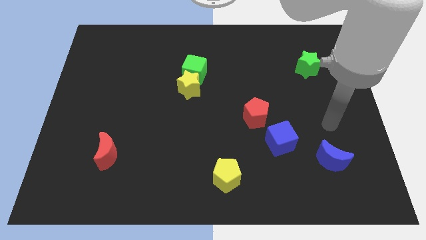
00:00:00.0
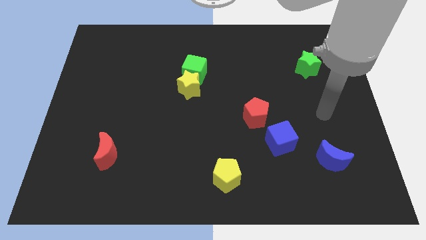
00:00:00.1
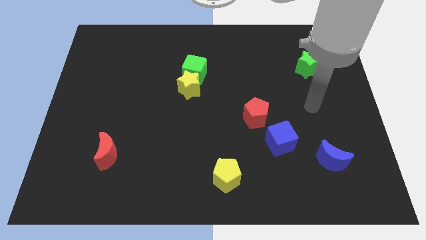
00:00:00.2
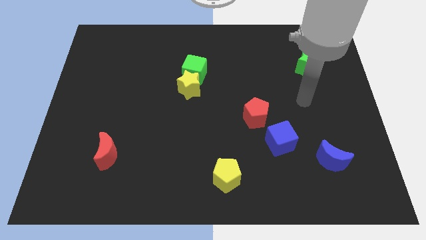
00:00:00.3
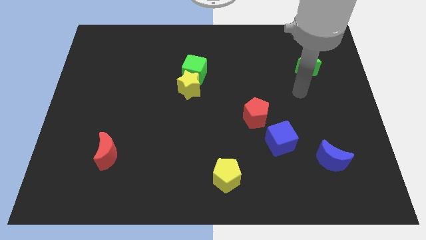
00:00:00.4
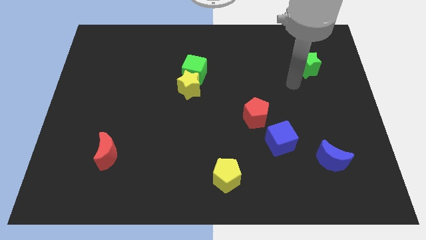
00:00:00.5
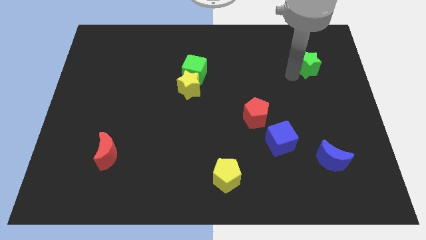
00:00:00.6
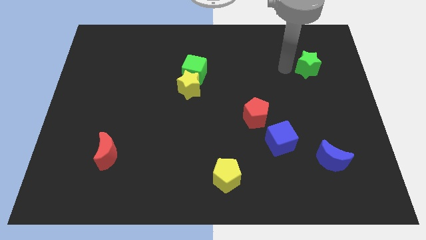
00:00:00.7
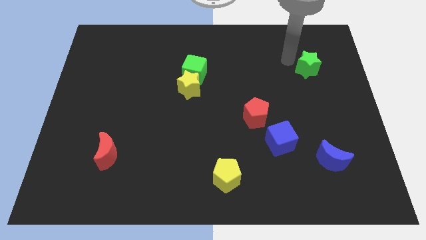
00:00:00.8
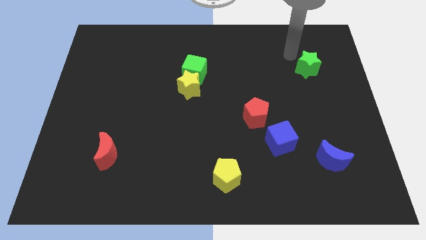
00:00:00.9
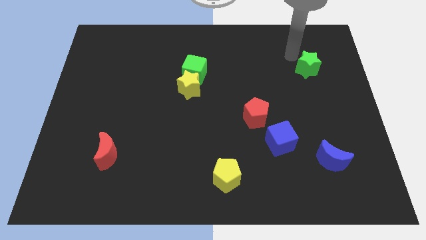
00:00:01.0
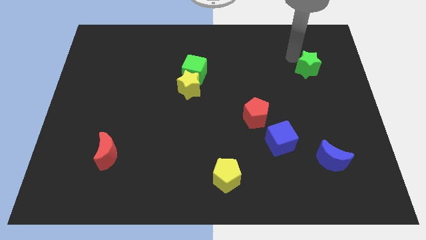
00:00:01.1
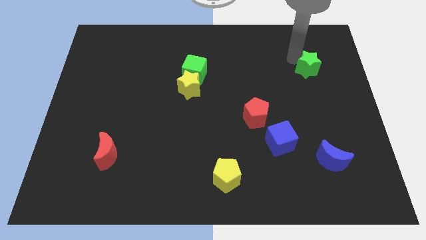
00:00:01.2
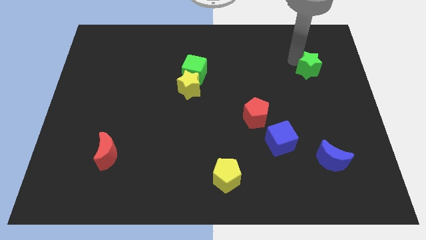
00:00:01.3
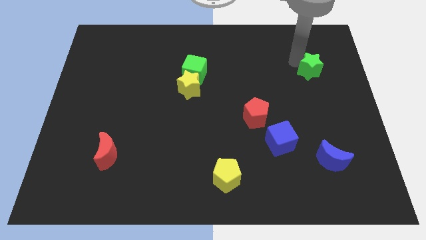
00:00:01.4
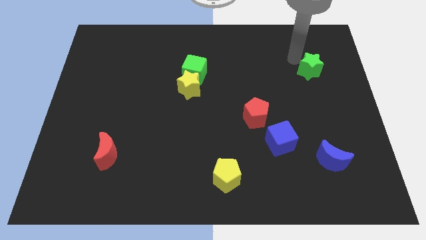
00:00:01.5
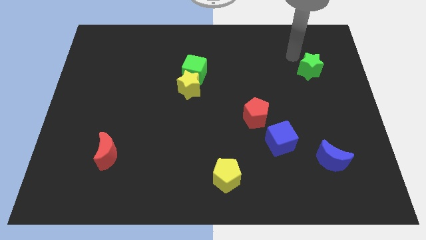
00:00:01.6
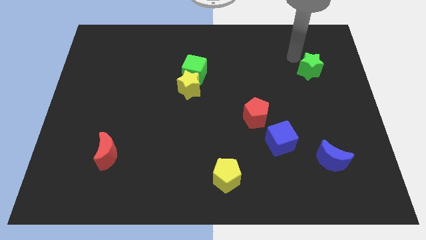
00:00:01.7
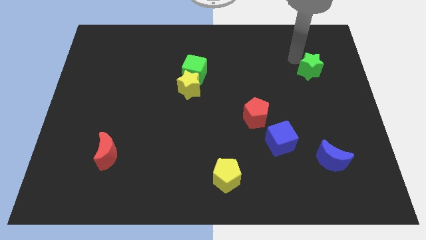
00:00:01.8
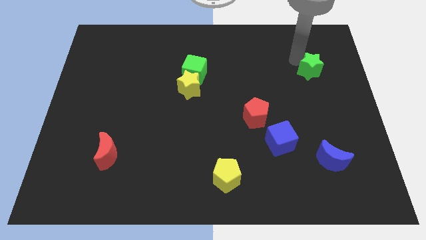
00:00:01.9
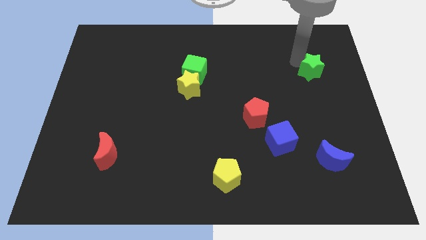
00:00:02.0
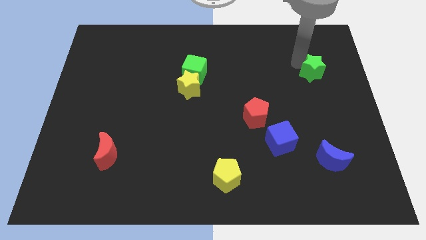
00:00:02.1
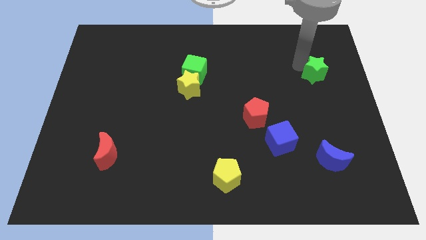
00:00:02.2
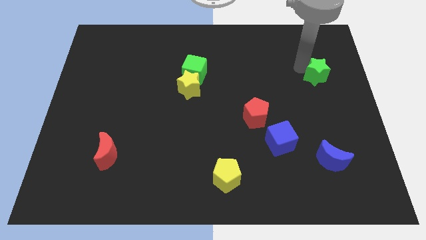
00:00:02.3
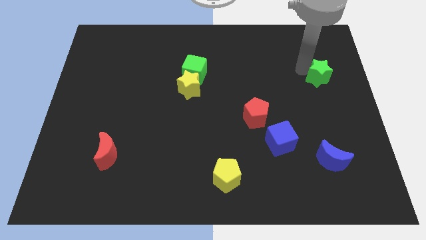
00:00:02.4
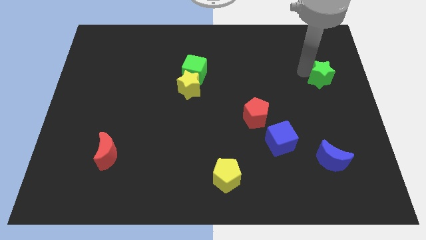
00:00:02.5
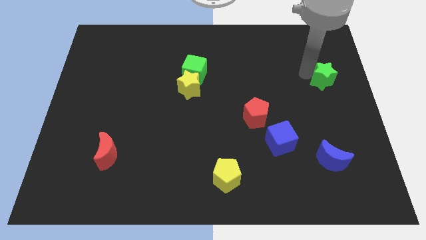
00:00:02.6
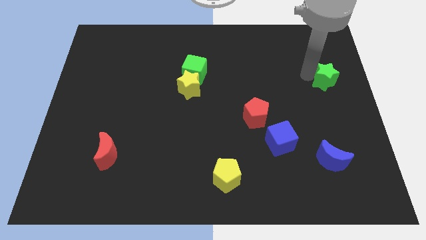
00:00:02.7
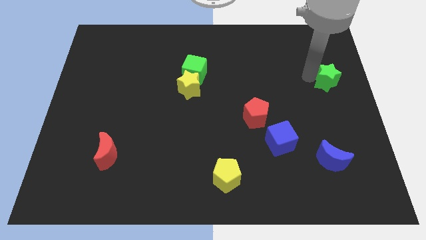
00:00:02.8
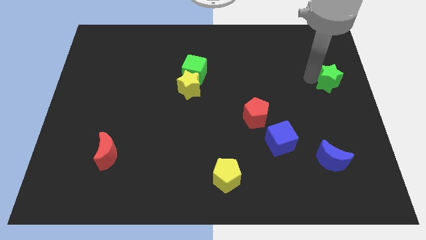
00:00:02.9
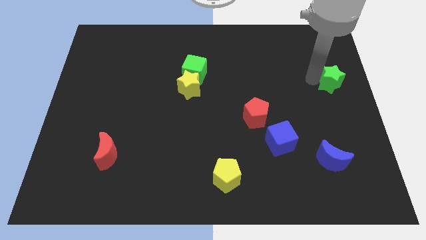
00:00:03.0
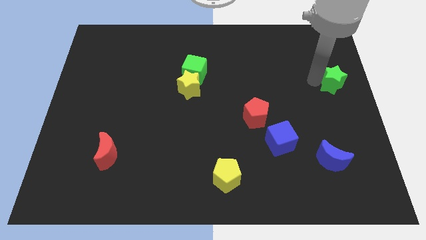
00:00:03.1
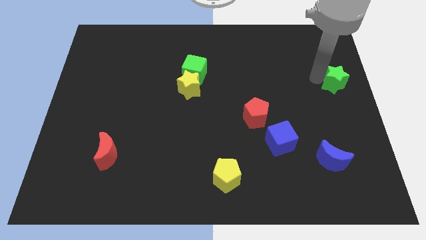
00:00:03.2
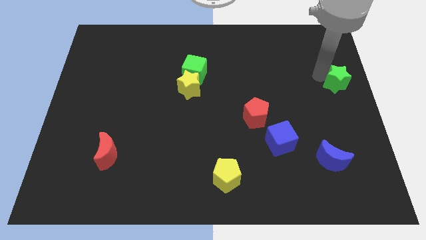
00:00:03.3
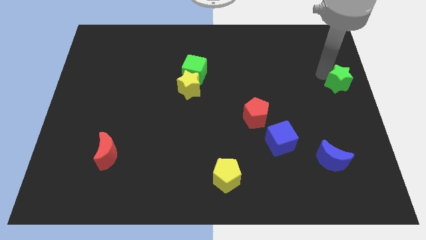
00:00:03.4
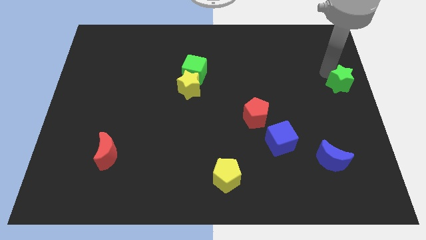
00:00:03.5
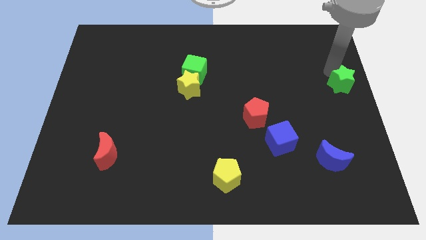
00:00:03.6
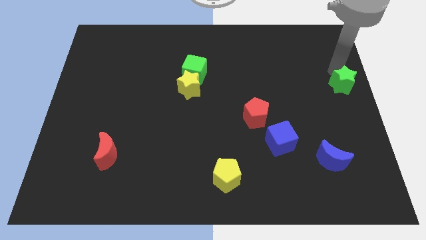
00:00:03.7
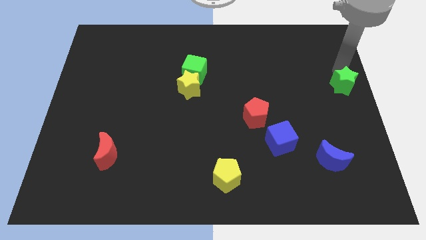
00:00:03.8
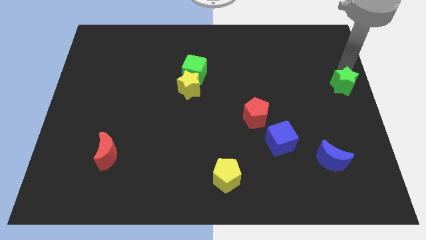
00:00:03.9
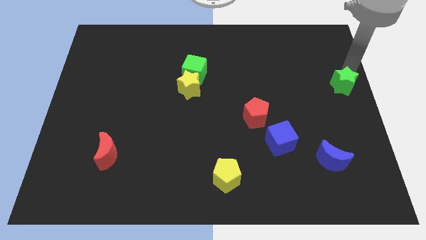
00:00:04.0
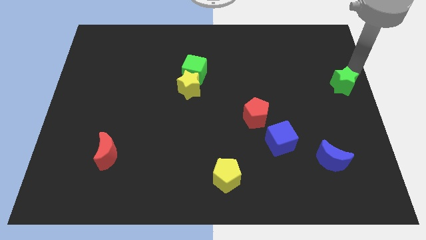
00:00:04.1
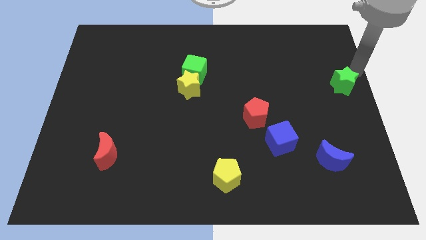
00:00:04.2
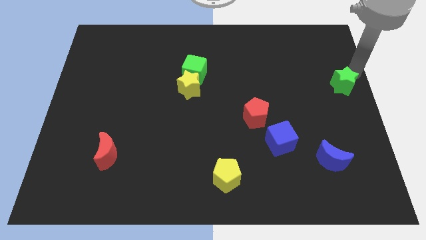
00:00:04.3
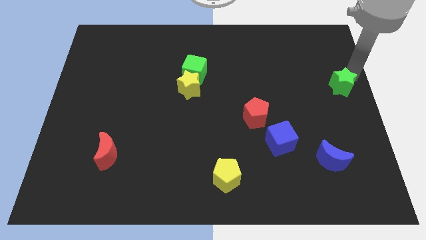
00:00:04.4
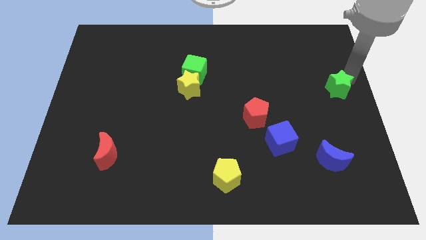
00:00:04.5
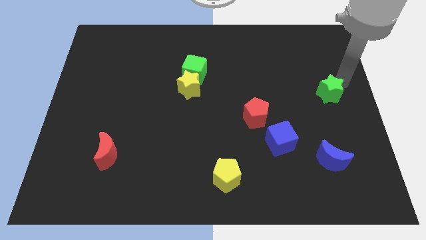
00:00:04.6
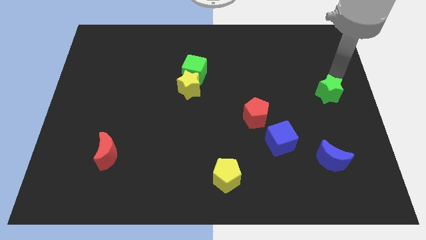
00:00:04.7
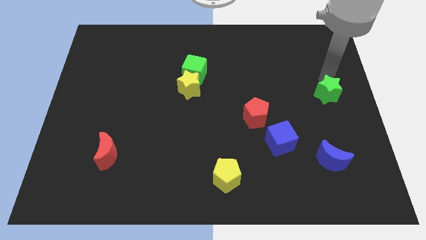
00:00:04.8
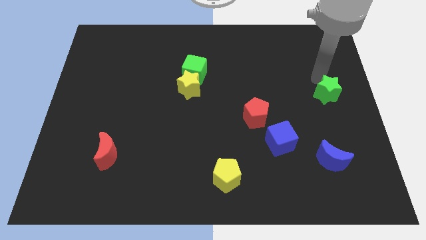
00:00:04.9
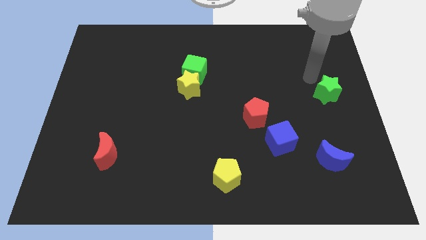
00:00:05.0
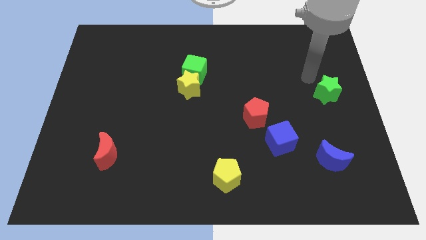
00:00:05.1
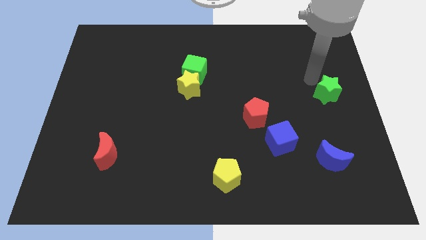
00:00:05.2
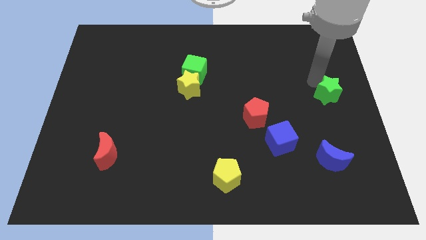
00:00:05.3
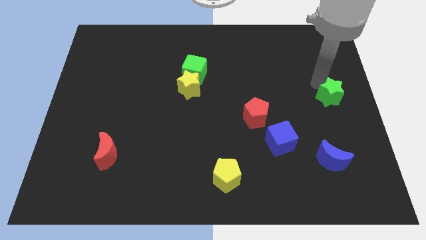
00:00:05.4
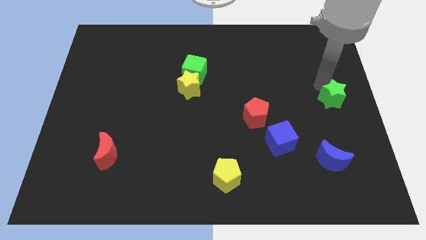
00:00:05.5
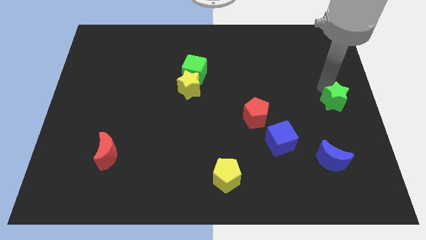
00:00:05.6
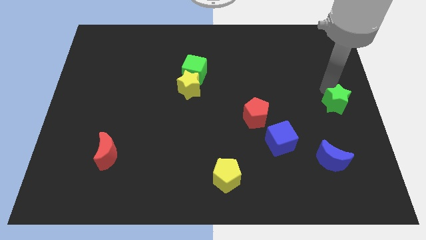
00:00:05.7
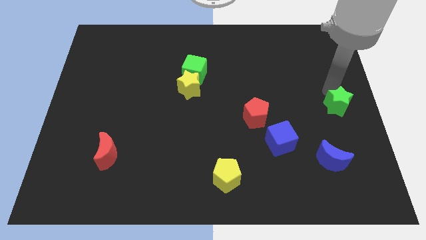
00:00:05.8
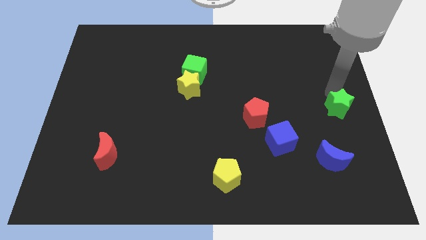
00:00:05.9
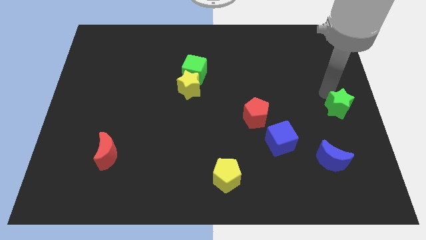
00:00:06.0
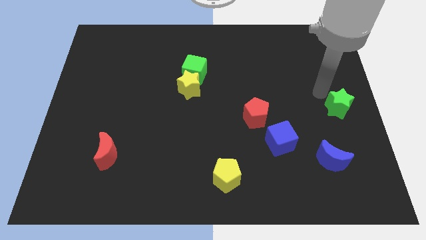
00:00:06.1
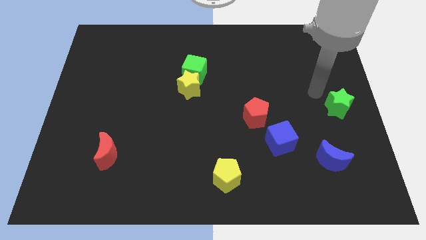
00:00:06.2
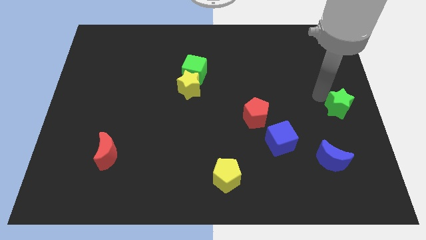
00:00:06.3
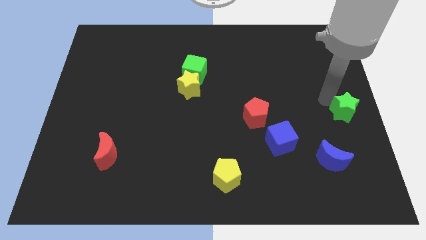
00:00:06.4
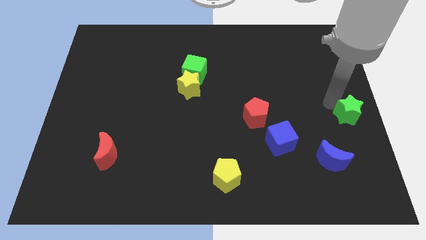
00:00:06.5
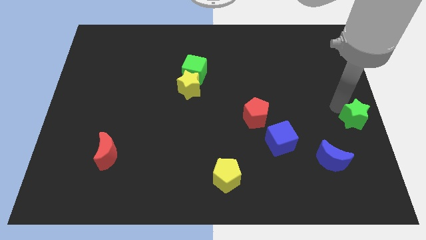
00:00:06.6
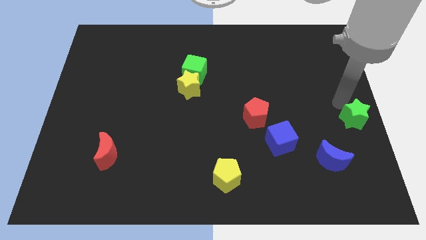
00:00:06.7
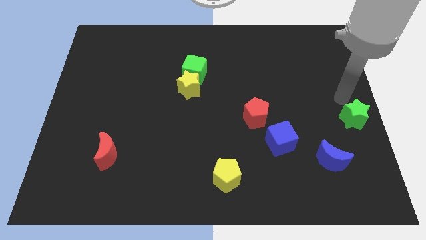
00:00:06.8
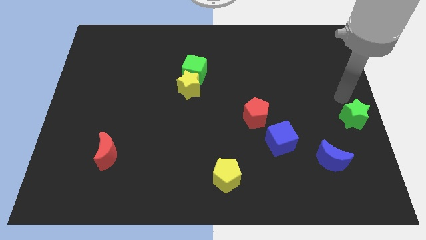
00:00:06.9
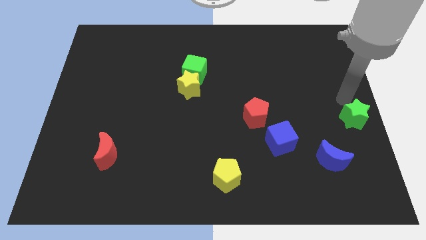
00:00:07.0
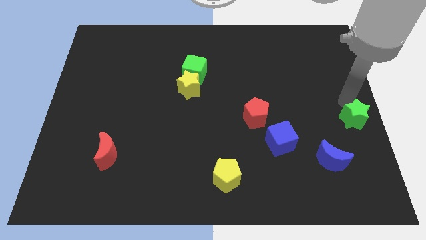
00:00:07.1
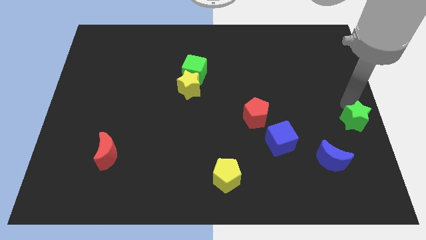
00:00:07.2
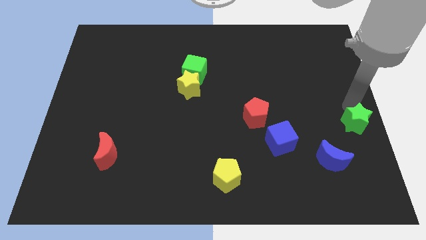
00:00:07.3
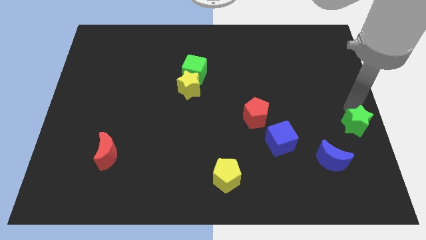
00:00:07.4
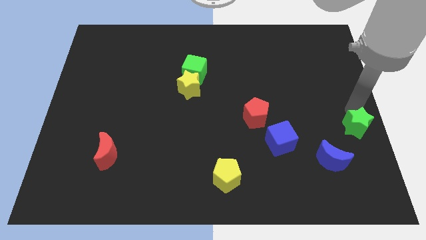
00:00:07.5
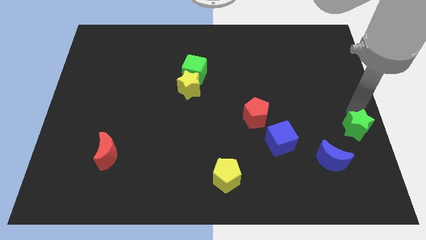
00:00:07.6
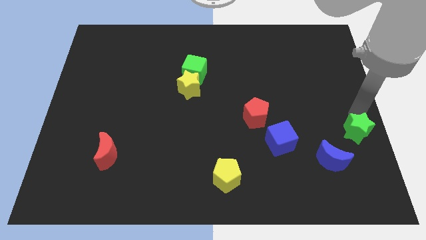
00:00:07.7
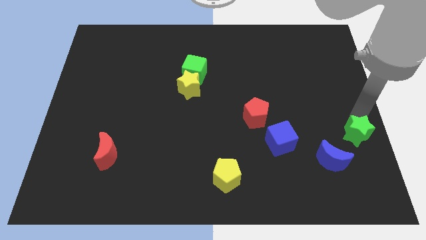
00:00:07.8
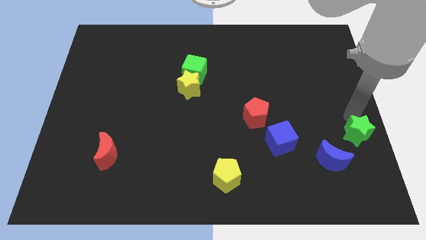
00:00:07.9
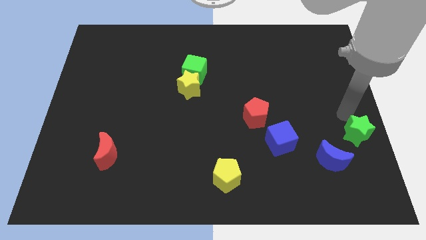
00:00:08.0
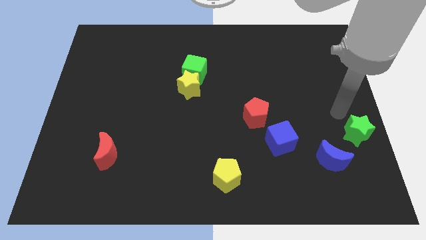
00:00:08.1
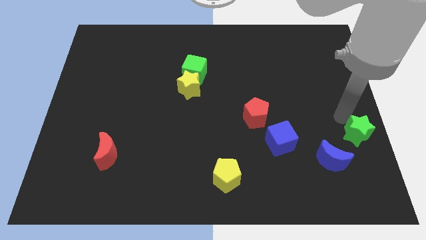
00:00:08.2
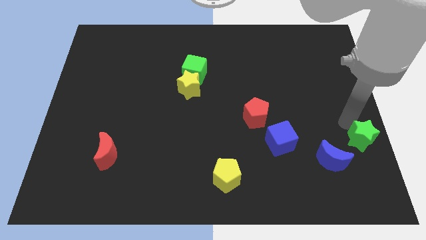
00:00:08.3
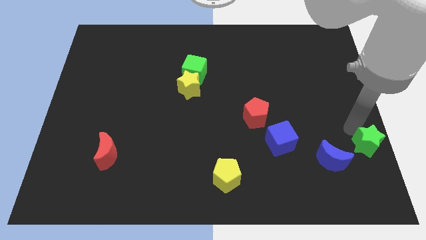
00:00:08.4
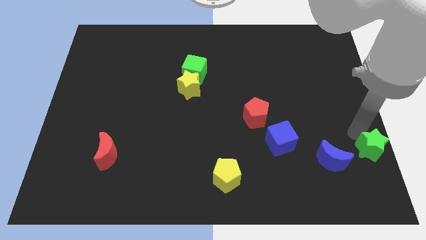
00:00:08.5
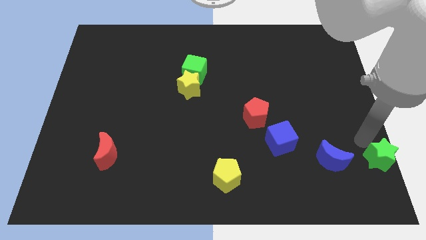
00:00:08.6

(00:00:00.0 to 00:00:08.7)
push the green star to the bottom right
